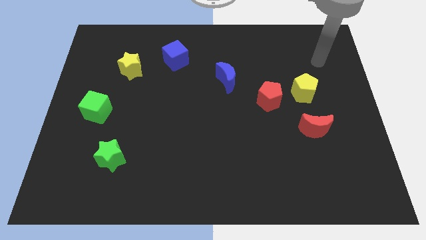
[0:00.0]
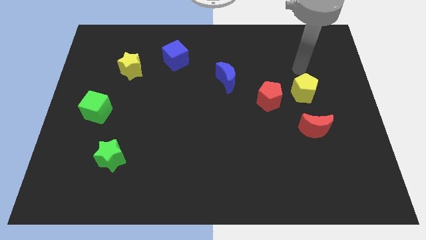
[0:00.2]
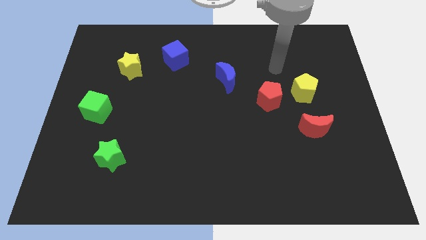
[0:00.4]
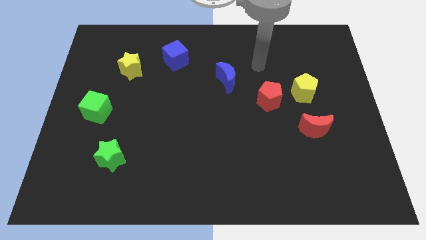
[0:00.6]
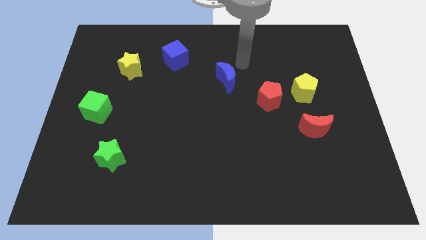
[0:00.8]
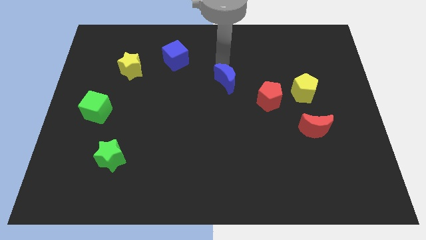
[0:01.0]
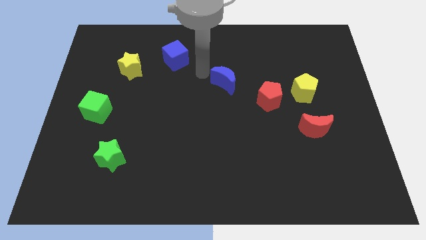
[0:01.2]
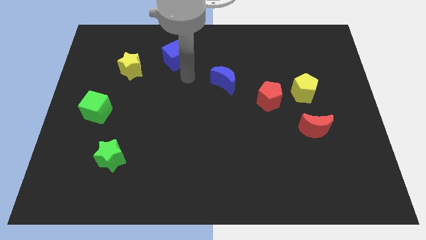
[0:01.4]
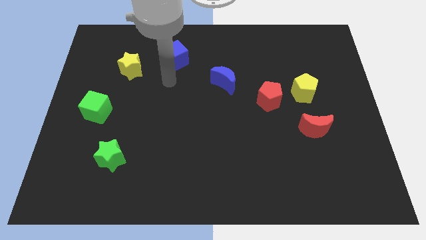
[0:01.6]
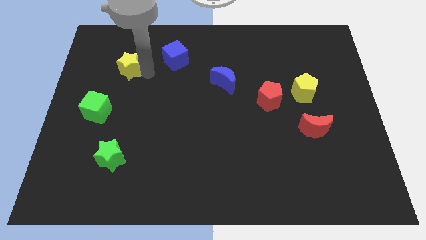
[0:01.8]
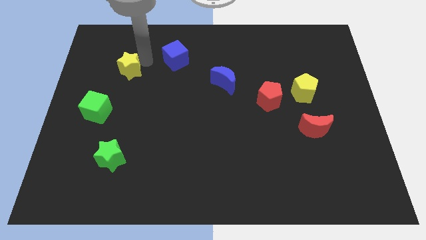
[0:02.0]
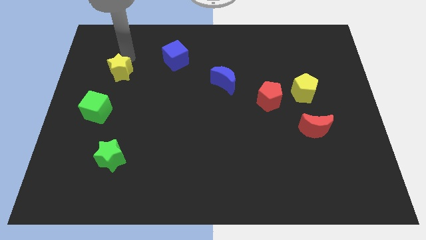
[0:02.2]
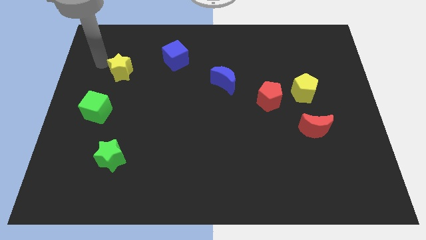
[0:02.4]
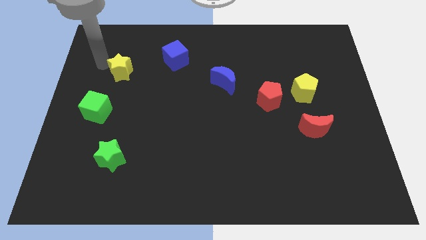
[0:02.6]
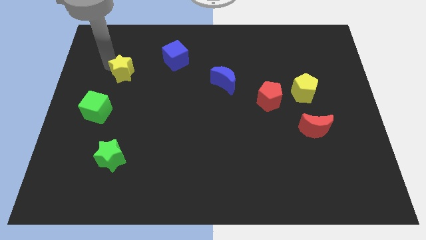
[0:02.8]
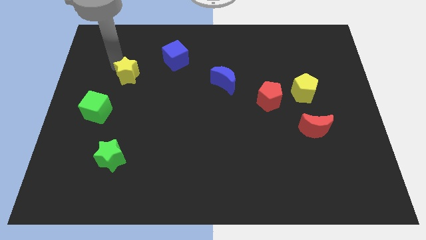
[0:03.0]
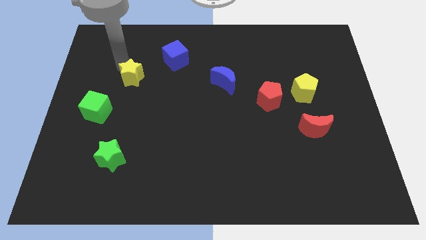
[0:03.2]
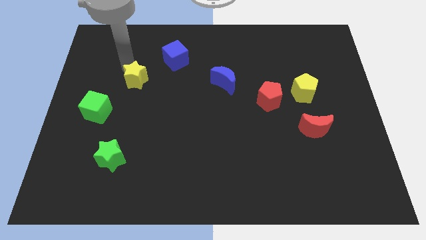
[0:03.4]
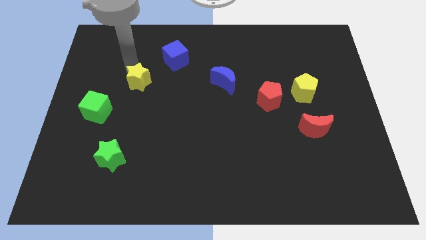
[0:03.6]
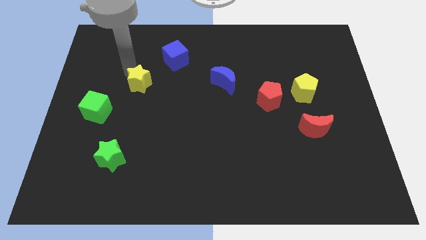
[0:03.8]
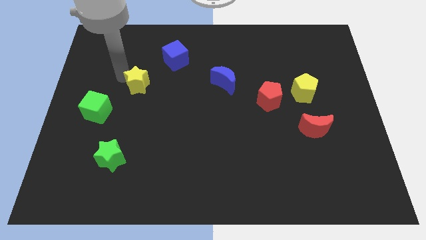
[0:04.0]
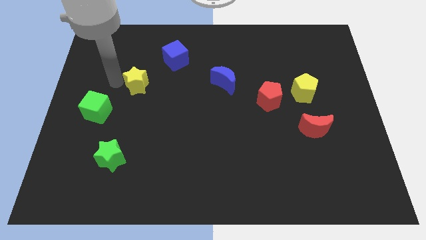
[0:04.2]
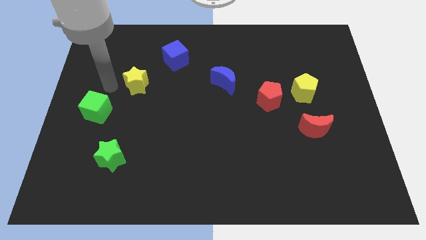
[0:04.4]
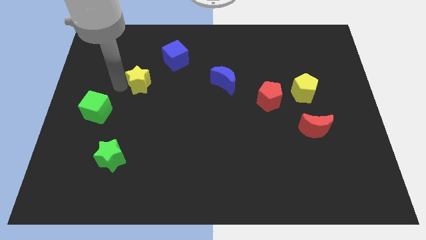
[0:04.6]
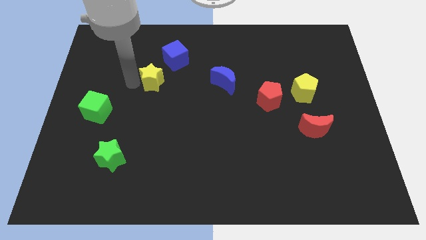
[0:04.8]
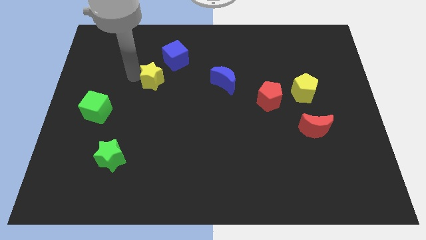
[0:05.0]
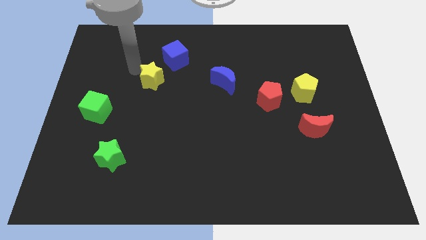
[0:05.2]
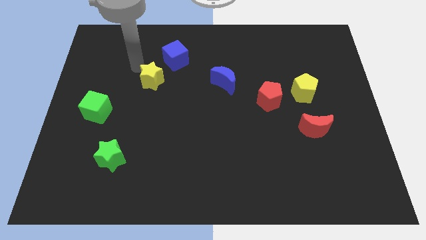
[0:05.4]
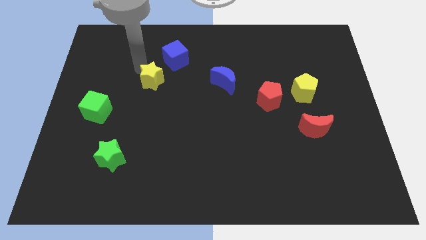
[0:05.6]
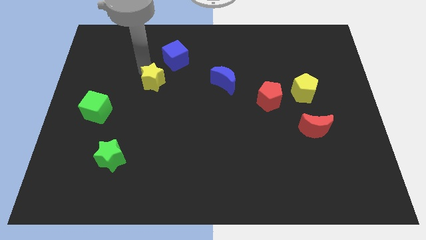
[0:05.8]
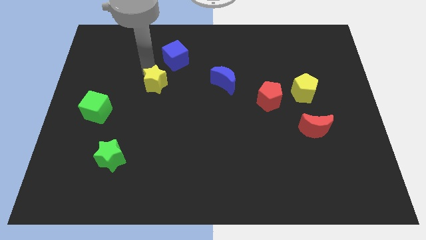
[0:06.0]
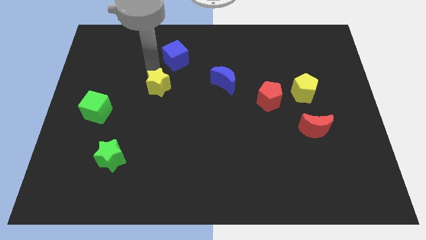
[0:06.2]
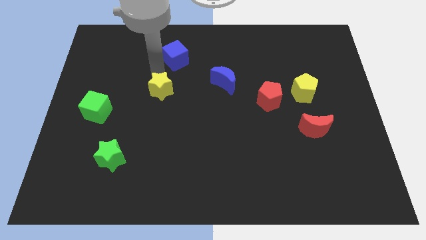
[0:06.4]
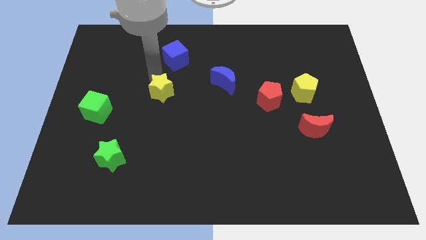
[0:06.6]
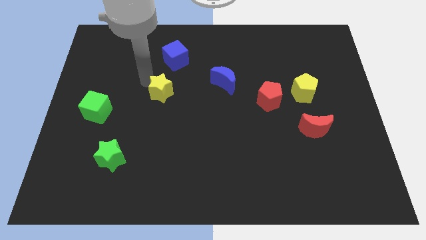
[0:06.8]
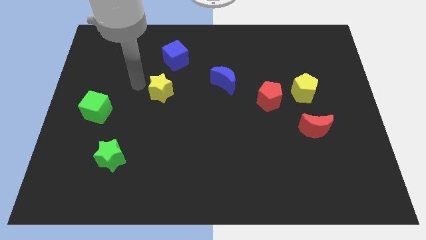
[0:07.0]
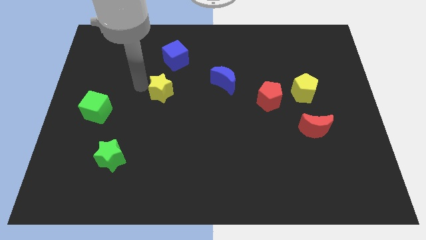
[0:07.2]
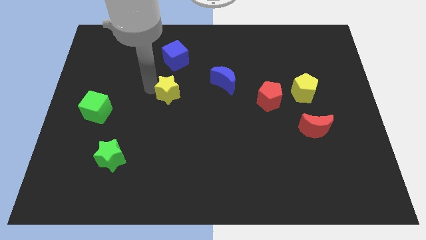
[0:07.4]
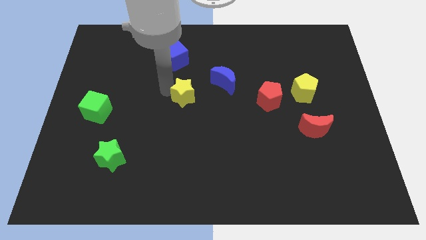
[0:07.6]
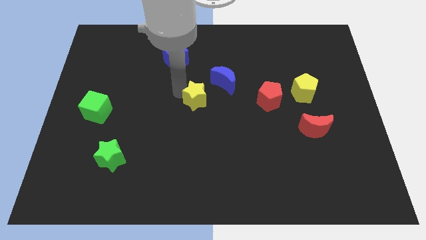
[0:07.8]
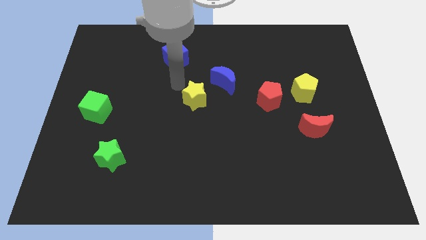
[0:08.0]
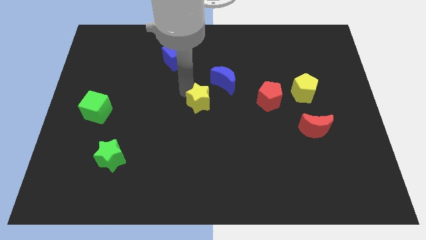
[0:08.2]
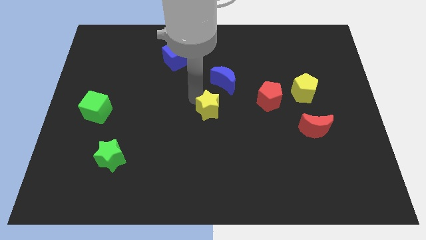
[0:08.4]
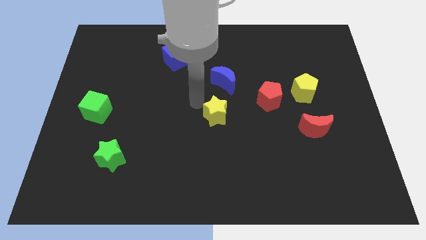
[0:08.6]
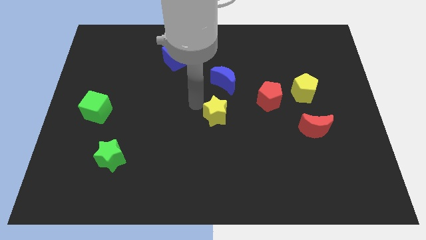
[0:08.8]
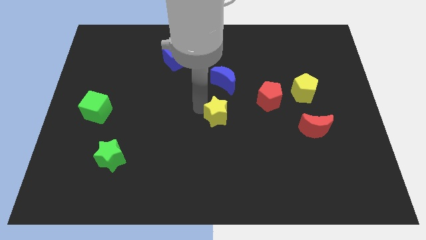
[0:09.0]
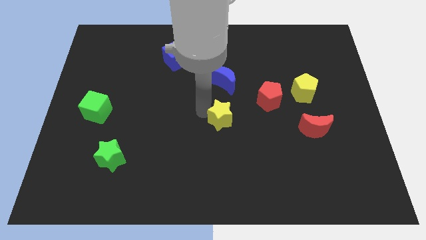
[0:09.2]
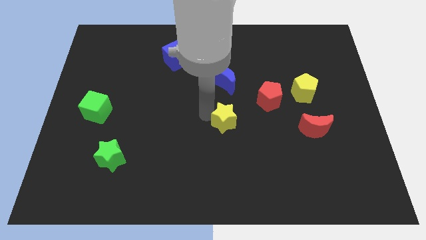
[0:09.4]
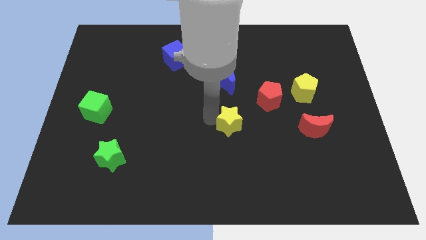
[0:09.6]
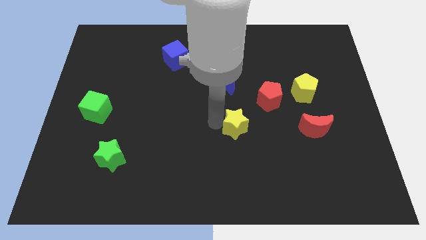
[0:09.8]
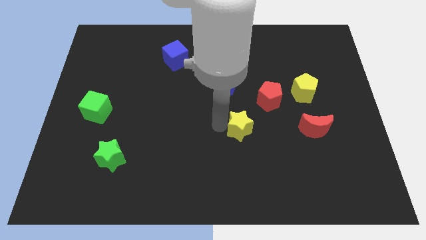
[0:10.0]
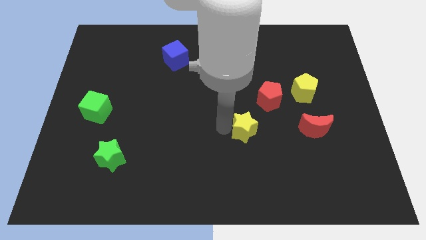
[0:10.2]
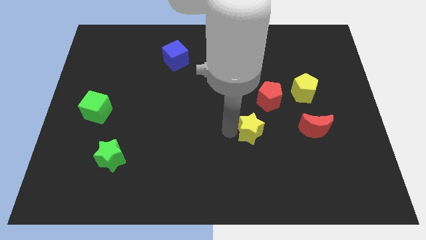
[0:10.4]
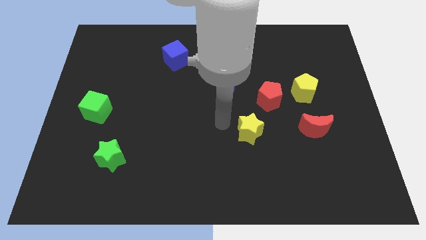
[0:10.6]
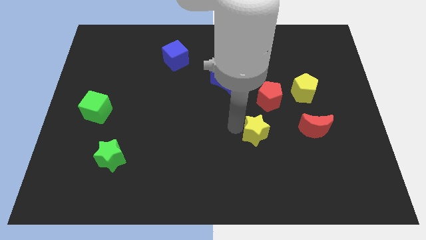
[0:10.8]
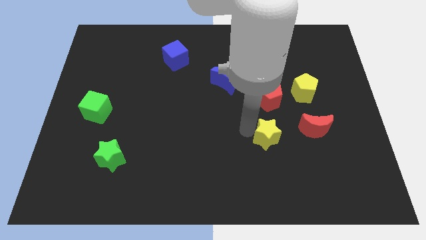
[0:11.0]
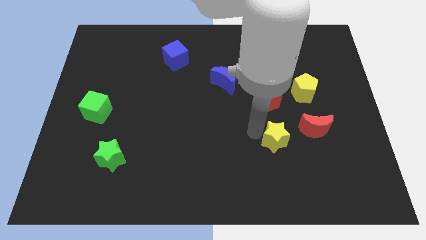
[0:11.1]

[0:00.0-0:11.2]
push the yellow star diagonally down and to the left of the red moon

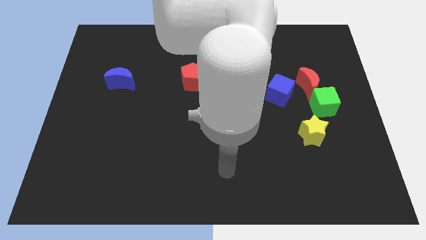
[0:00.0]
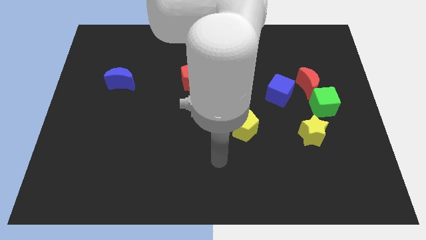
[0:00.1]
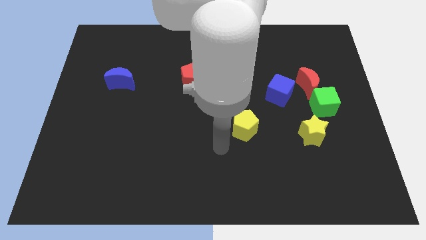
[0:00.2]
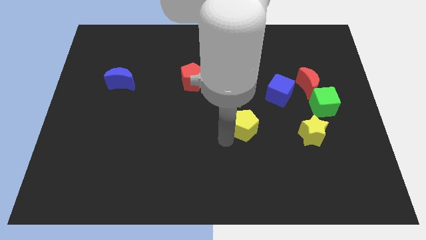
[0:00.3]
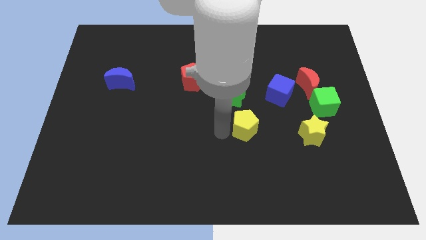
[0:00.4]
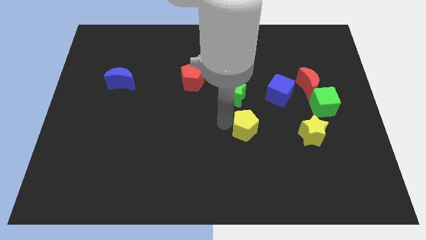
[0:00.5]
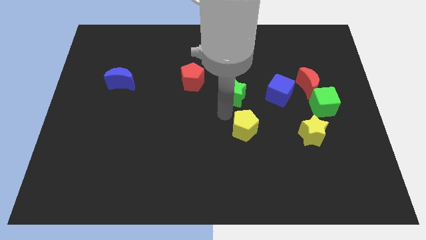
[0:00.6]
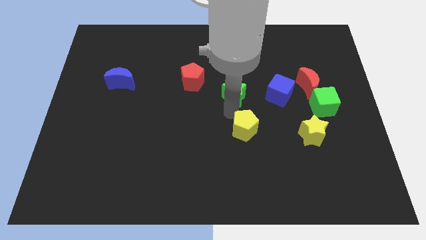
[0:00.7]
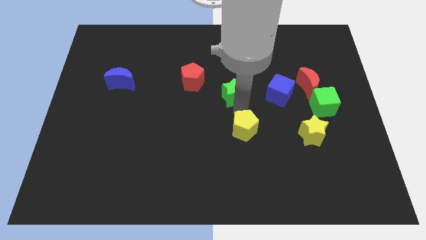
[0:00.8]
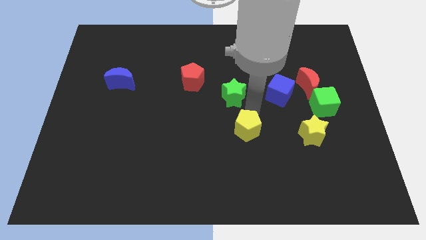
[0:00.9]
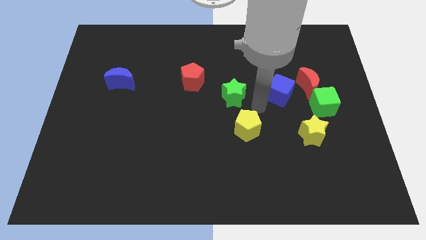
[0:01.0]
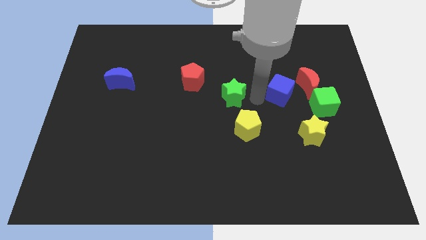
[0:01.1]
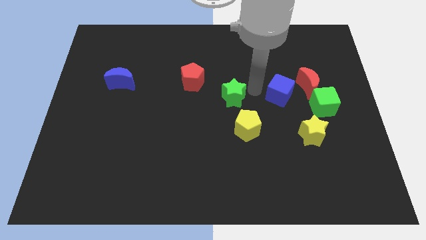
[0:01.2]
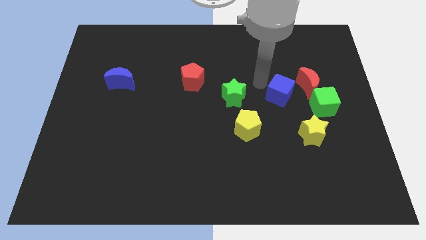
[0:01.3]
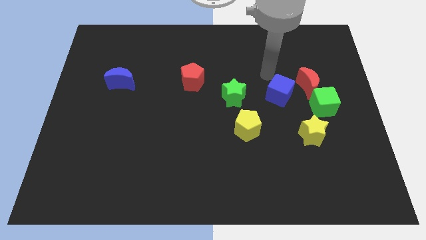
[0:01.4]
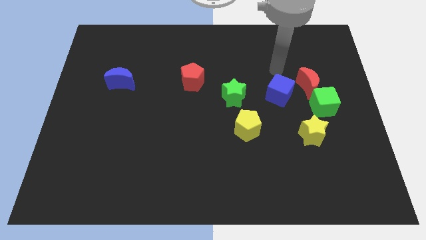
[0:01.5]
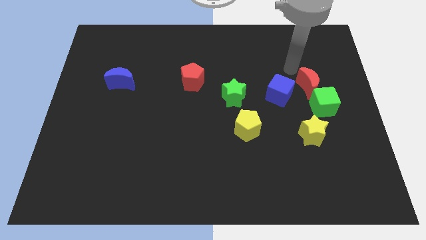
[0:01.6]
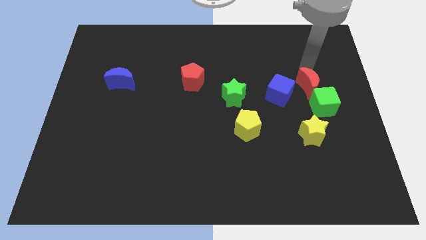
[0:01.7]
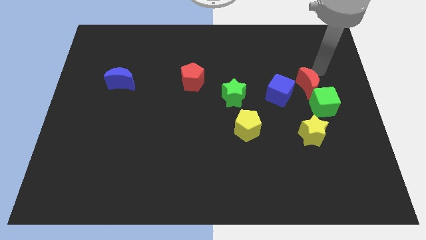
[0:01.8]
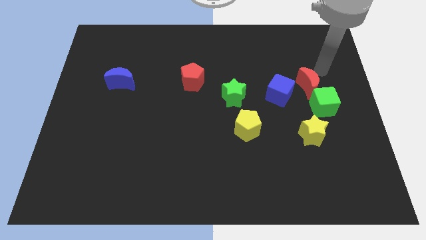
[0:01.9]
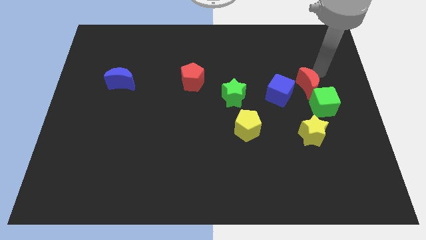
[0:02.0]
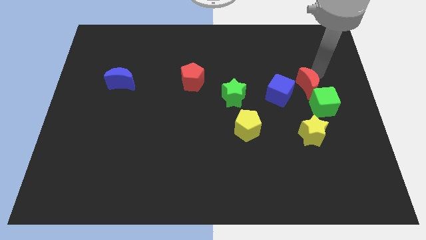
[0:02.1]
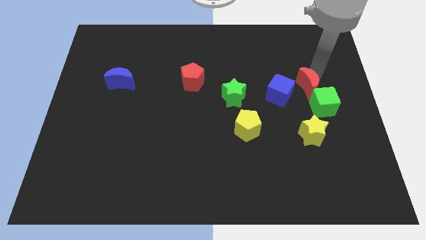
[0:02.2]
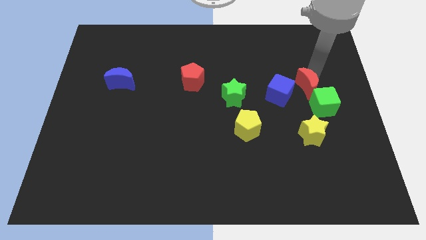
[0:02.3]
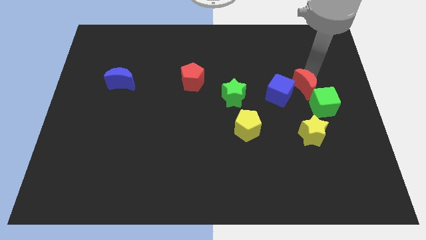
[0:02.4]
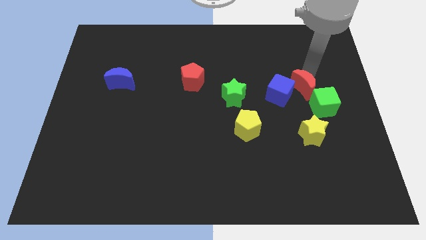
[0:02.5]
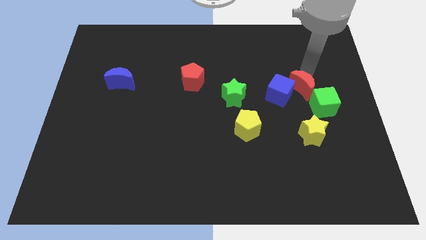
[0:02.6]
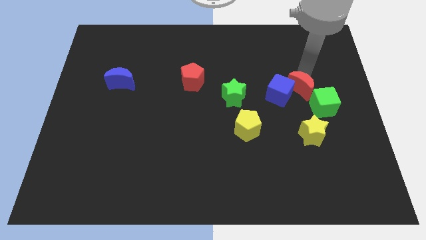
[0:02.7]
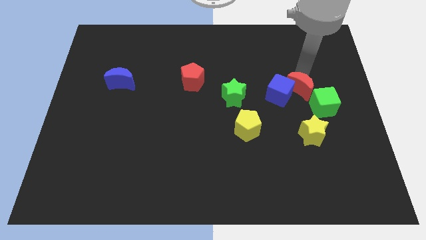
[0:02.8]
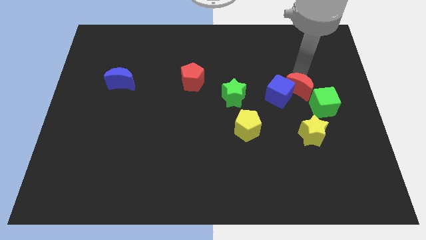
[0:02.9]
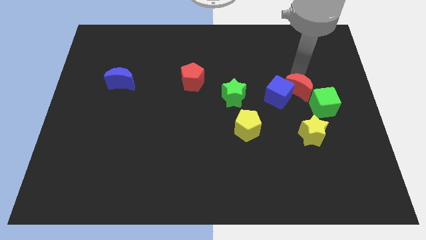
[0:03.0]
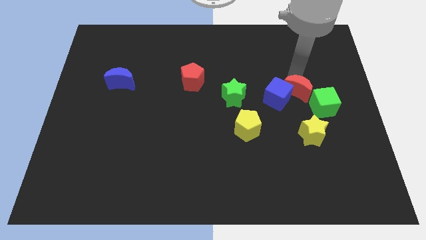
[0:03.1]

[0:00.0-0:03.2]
push the red moon to the left side of the green cube
